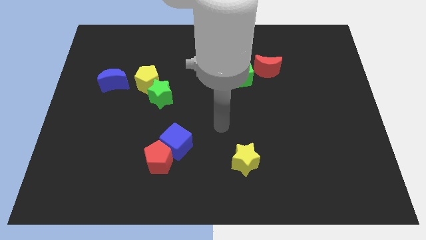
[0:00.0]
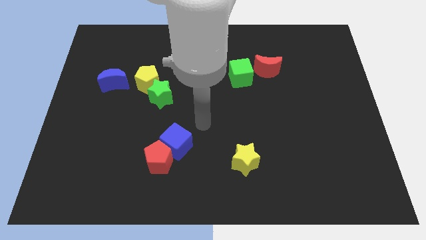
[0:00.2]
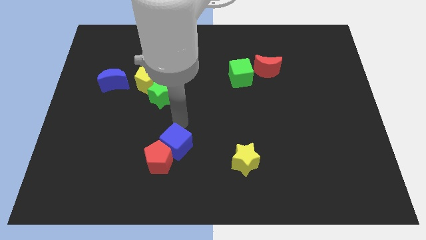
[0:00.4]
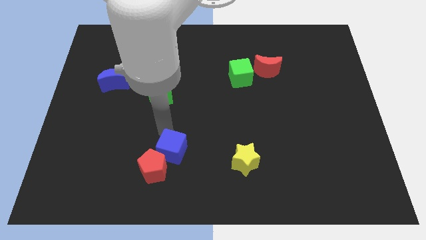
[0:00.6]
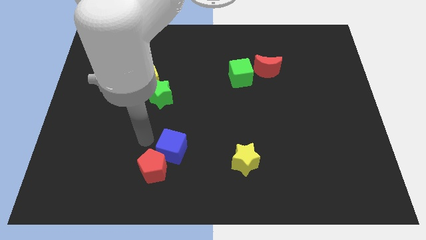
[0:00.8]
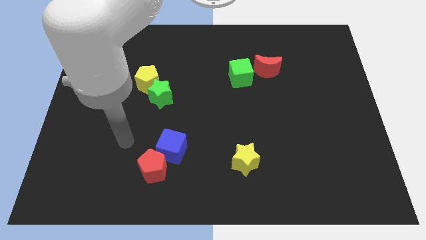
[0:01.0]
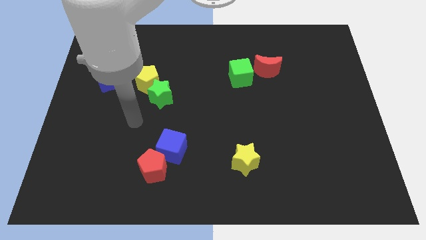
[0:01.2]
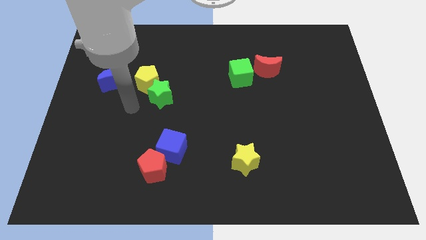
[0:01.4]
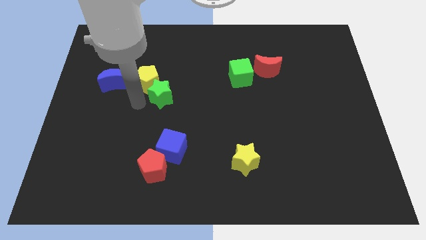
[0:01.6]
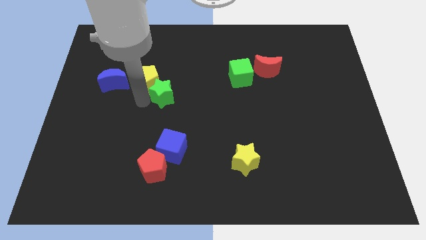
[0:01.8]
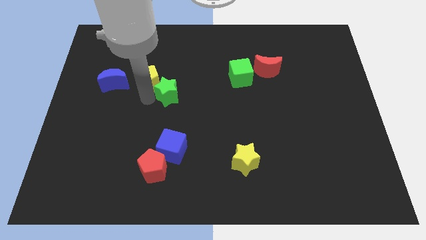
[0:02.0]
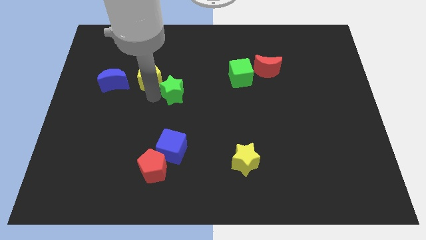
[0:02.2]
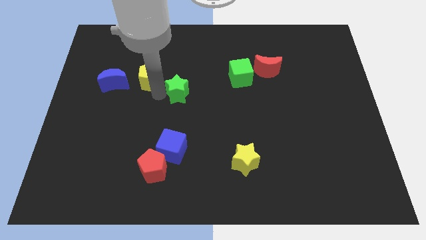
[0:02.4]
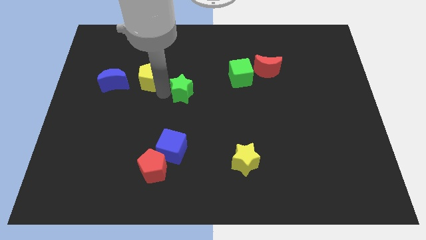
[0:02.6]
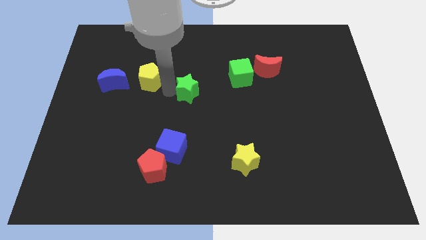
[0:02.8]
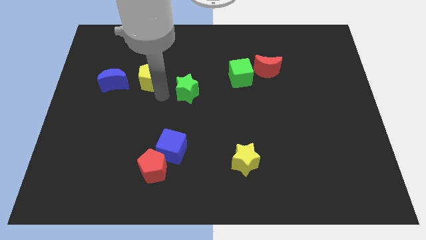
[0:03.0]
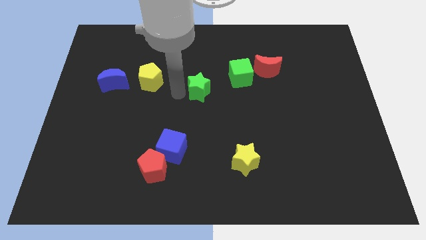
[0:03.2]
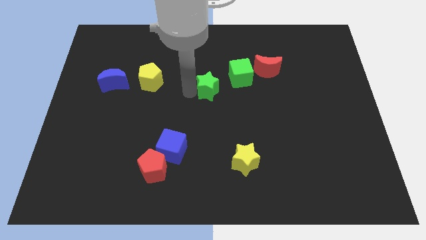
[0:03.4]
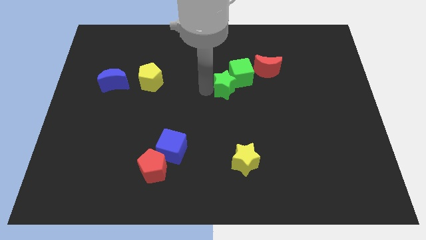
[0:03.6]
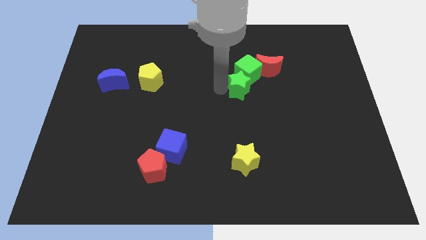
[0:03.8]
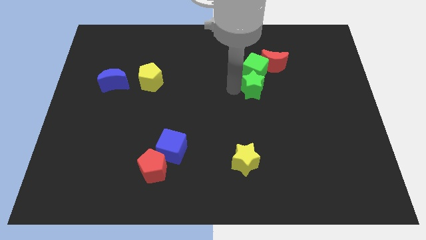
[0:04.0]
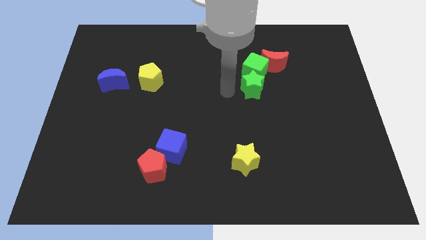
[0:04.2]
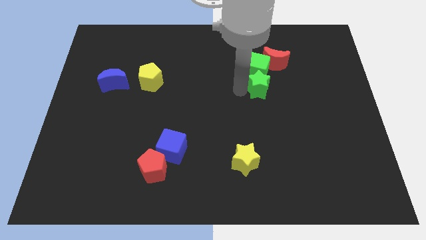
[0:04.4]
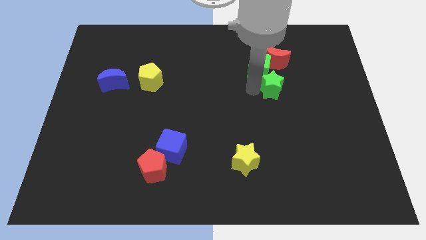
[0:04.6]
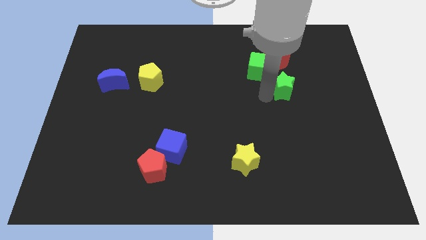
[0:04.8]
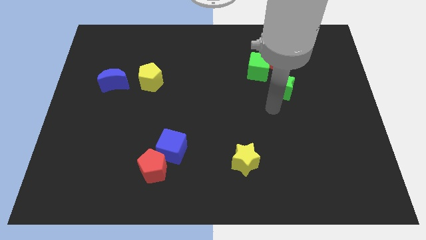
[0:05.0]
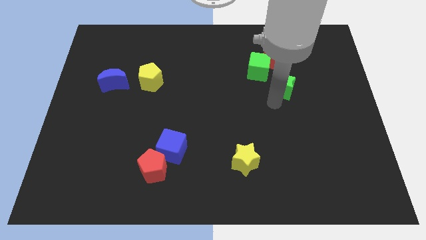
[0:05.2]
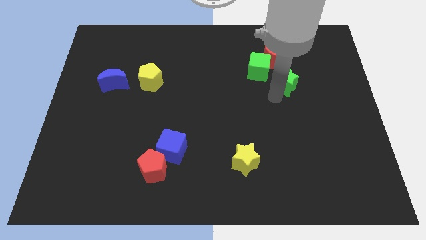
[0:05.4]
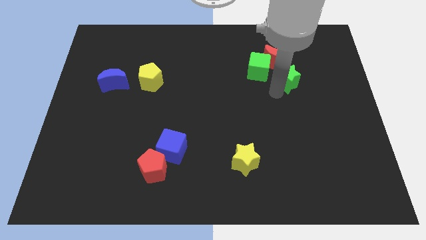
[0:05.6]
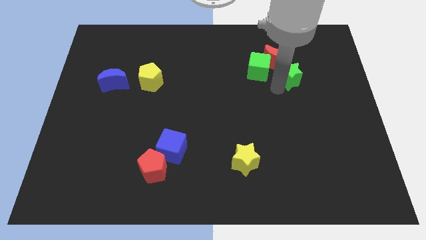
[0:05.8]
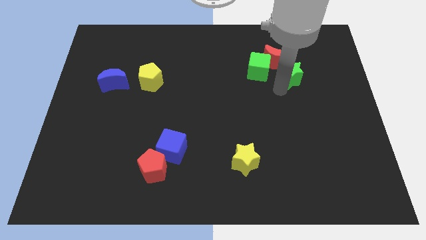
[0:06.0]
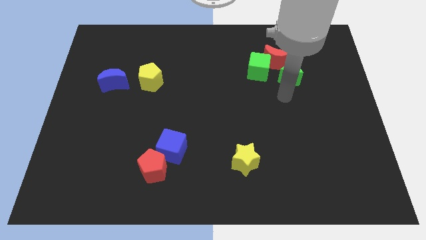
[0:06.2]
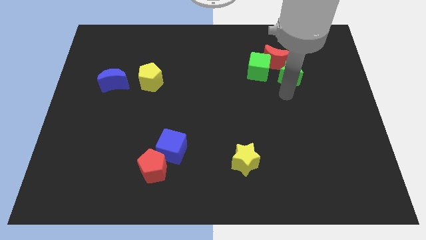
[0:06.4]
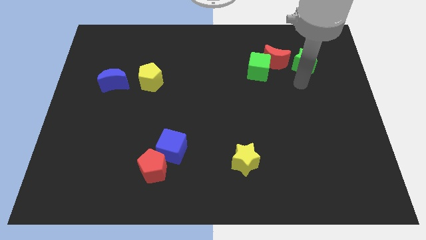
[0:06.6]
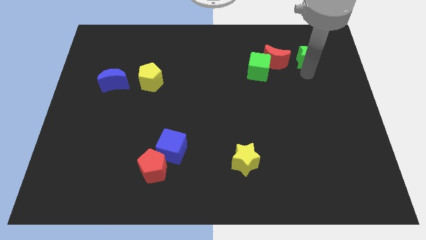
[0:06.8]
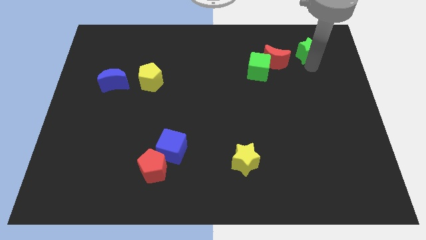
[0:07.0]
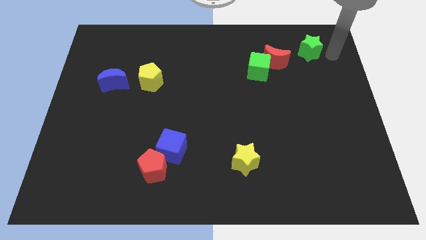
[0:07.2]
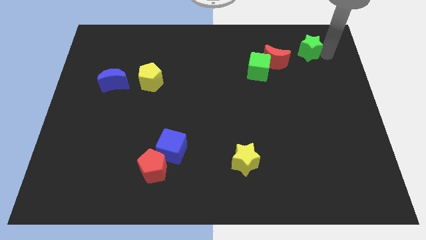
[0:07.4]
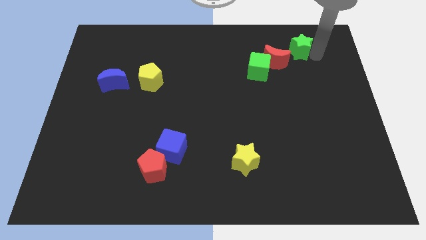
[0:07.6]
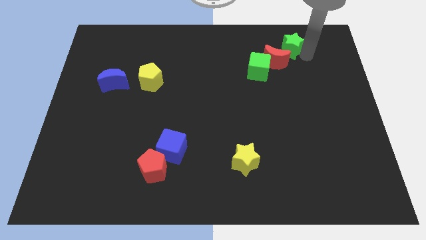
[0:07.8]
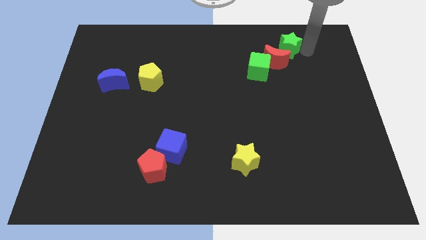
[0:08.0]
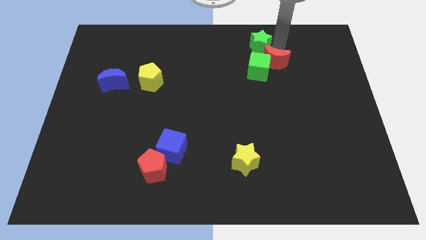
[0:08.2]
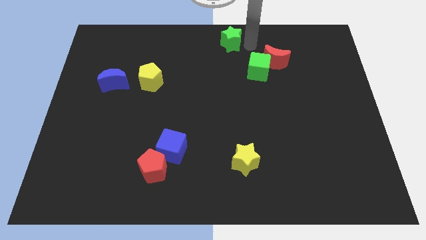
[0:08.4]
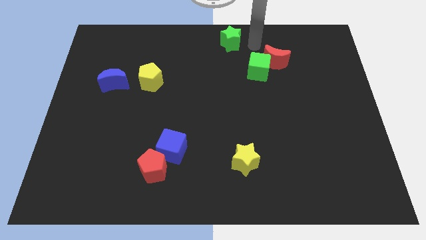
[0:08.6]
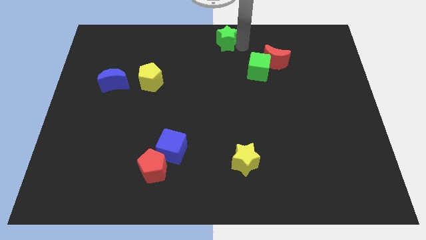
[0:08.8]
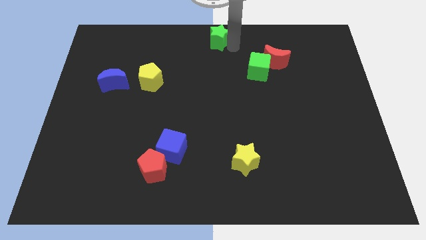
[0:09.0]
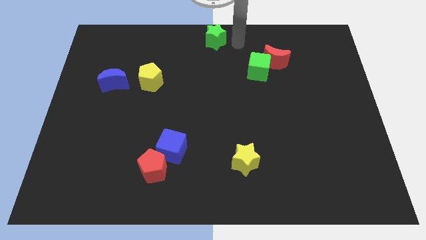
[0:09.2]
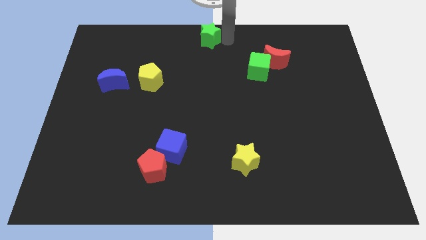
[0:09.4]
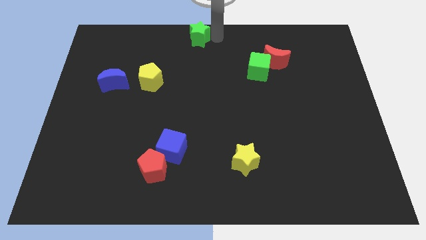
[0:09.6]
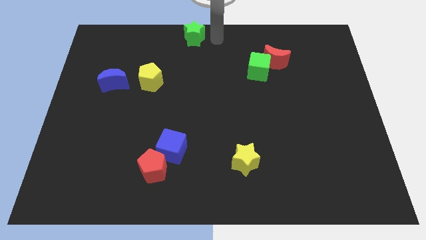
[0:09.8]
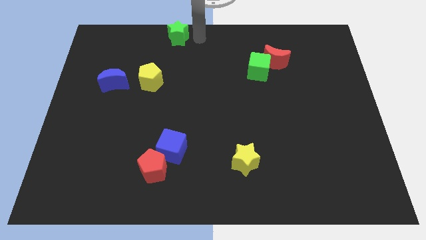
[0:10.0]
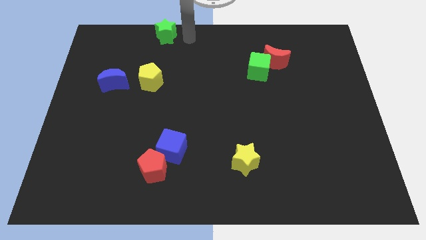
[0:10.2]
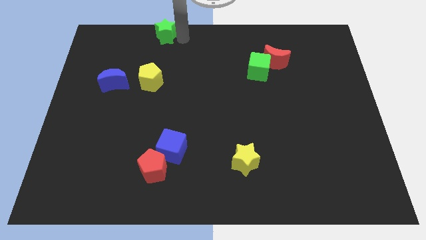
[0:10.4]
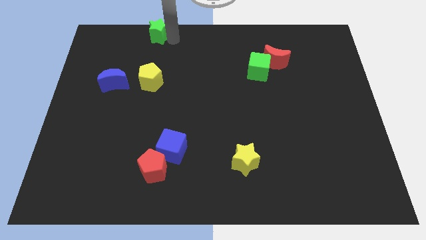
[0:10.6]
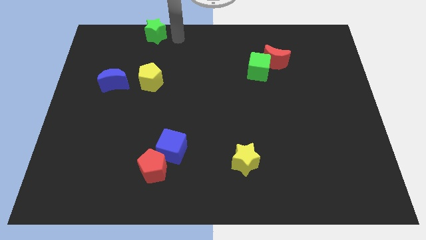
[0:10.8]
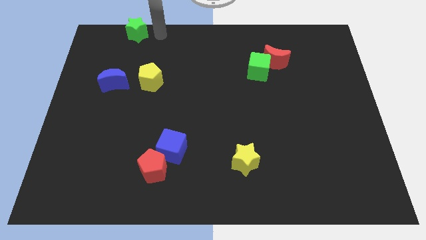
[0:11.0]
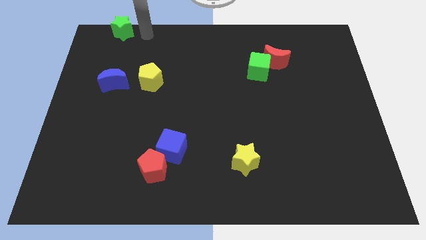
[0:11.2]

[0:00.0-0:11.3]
push the green star to the upper left corner
